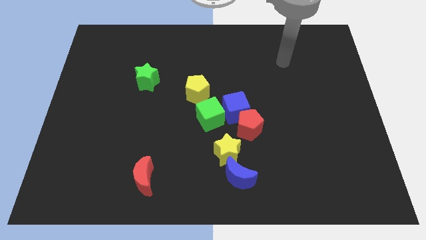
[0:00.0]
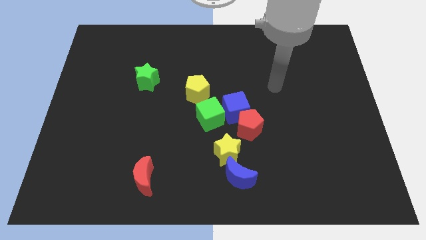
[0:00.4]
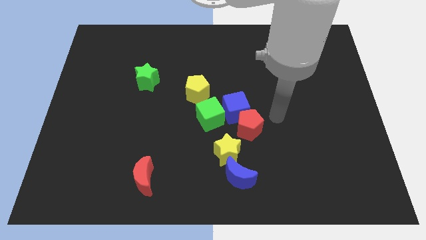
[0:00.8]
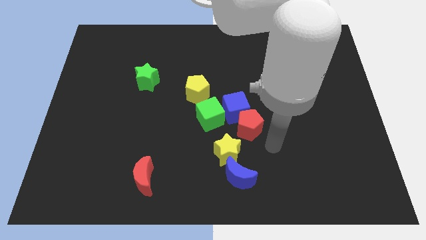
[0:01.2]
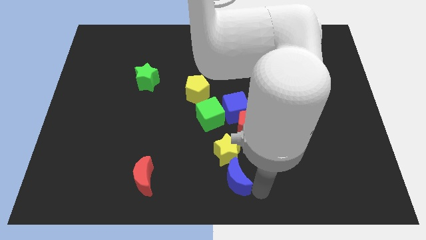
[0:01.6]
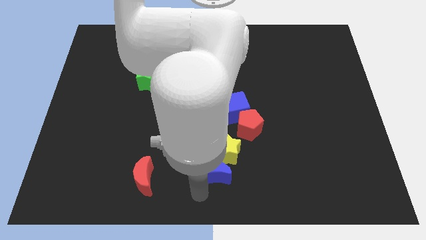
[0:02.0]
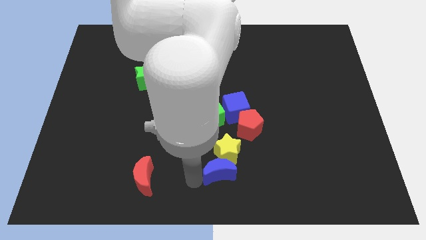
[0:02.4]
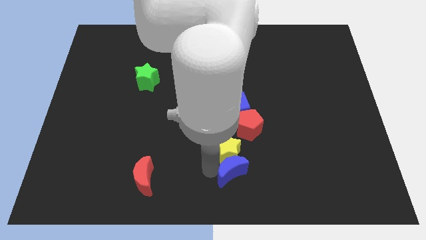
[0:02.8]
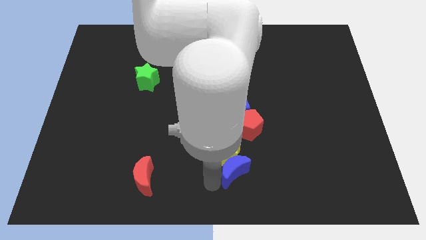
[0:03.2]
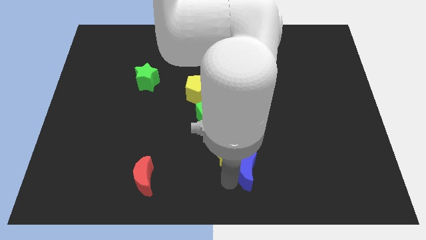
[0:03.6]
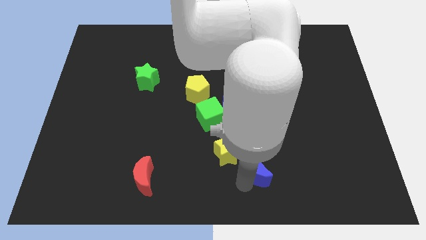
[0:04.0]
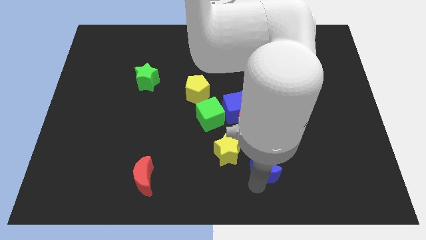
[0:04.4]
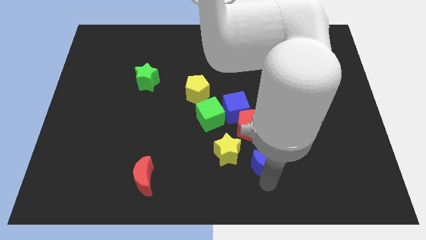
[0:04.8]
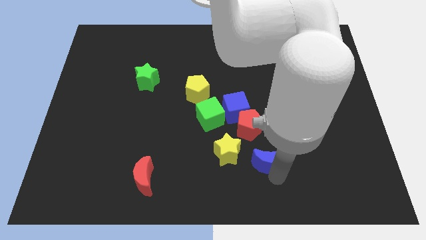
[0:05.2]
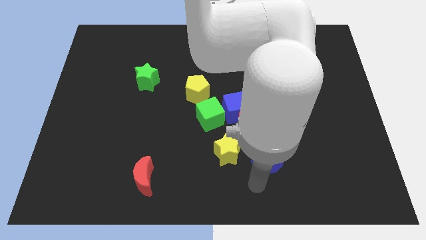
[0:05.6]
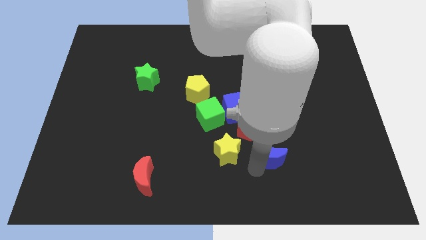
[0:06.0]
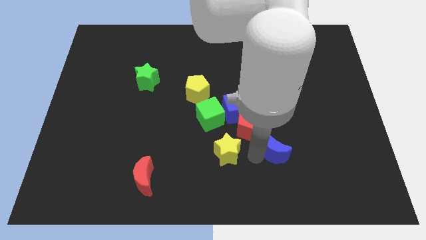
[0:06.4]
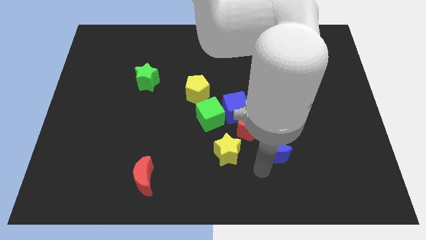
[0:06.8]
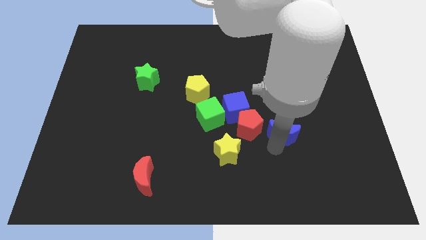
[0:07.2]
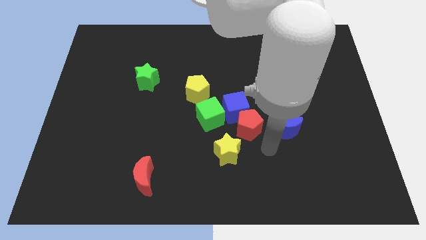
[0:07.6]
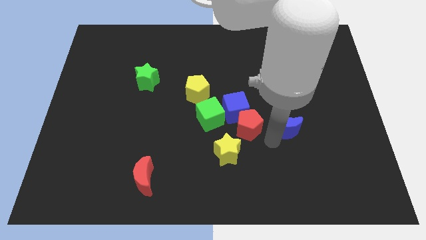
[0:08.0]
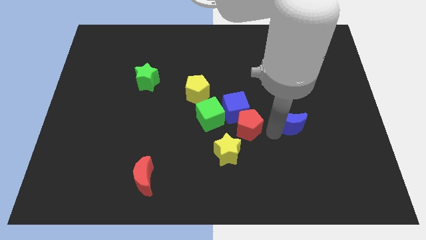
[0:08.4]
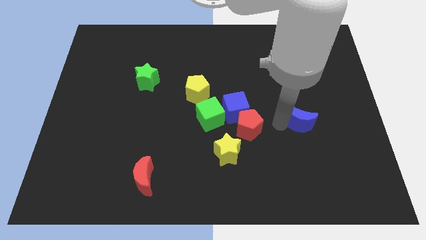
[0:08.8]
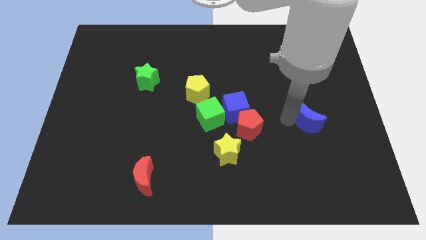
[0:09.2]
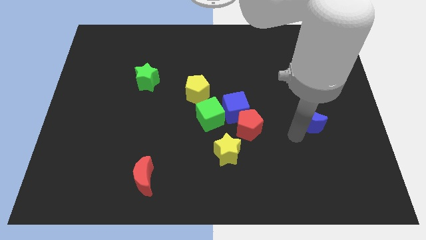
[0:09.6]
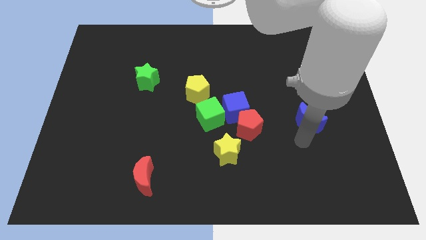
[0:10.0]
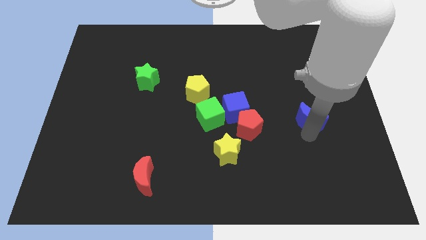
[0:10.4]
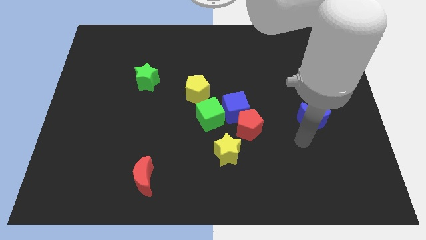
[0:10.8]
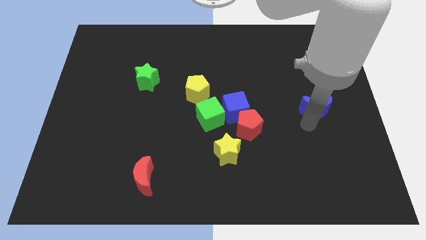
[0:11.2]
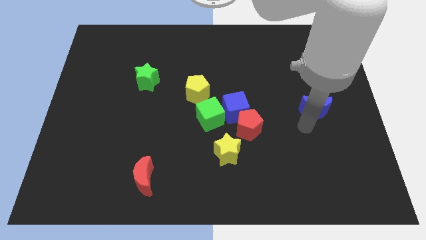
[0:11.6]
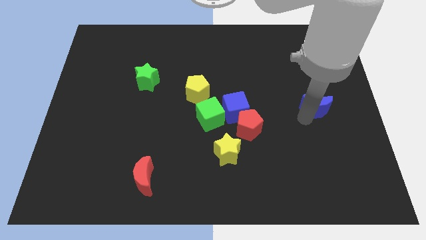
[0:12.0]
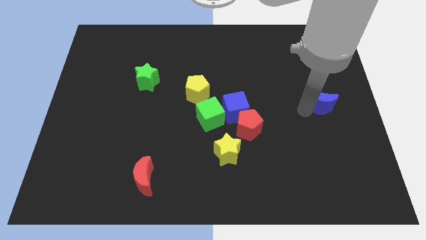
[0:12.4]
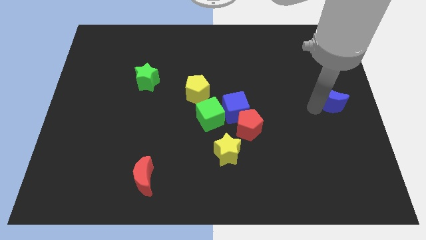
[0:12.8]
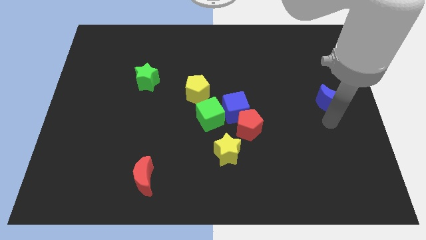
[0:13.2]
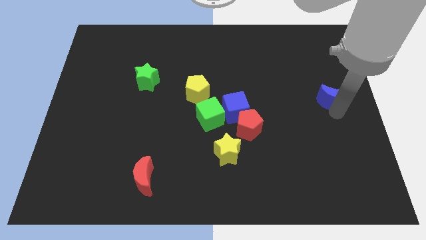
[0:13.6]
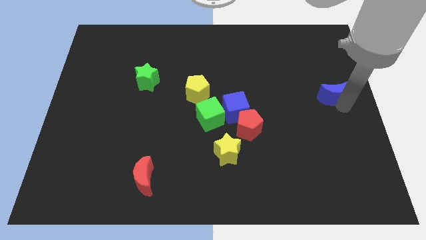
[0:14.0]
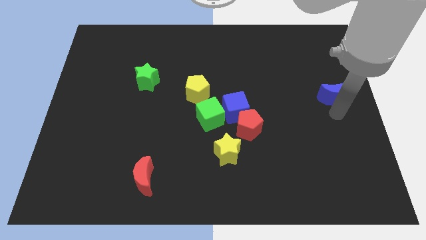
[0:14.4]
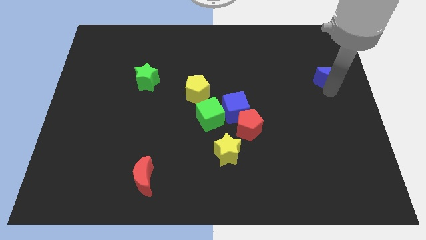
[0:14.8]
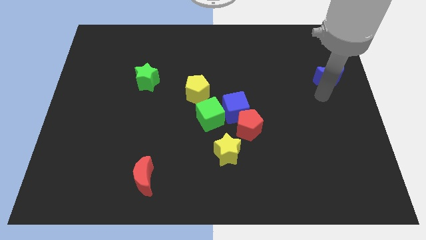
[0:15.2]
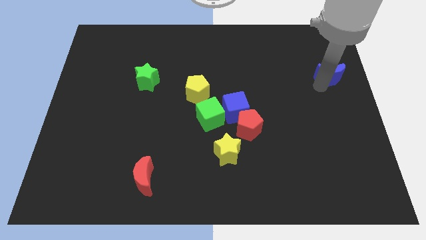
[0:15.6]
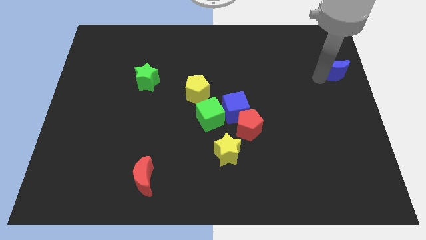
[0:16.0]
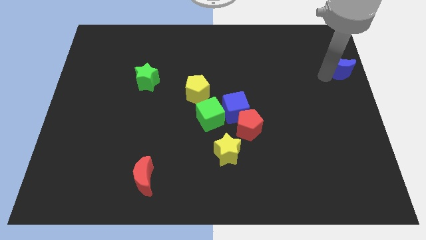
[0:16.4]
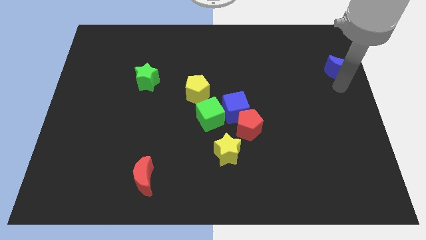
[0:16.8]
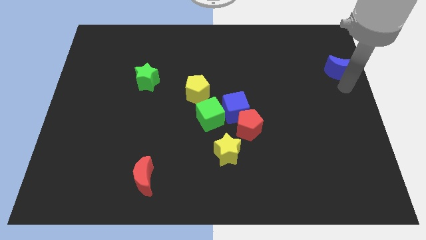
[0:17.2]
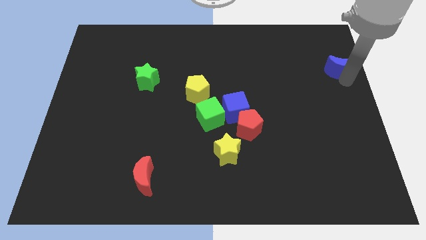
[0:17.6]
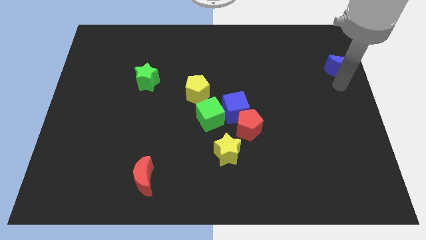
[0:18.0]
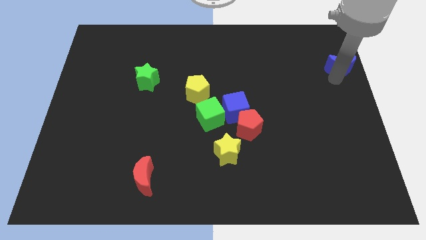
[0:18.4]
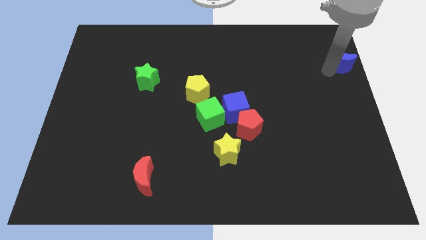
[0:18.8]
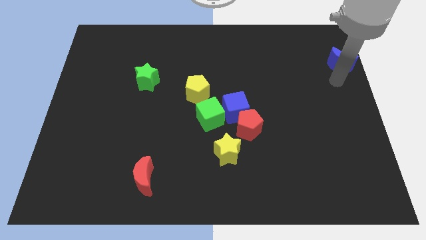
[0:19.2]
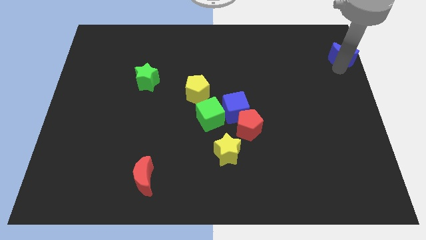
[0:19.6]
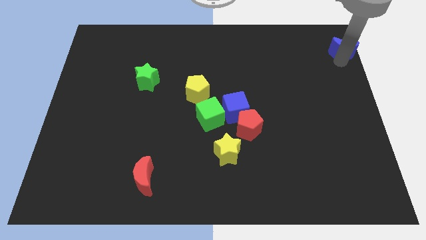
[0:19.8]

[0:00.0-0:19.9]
push the blue moon to the upper right corner

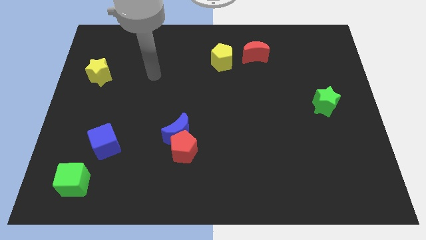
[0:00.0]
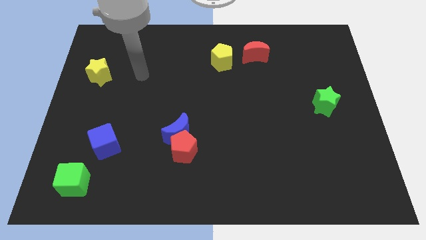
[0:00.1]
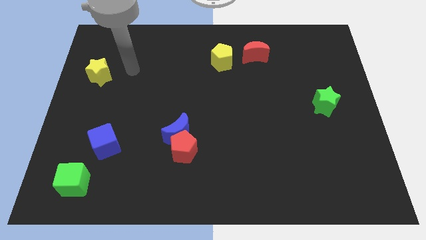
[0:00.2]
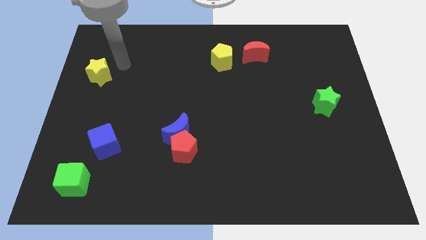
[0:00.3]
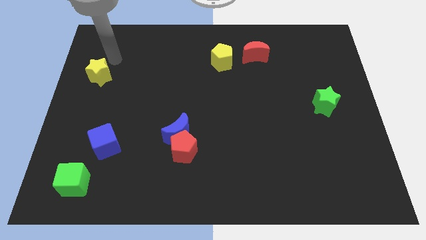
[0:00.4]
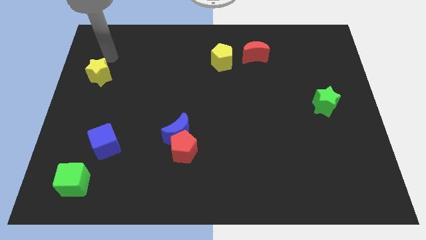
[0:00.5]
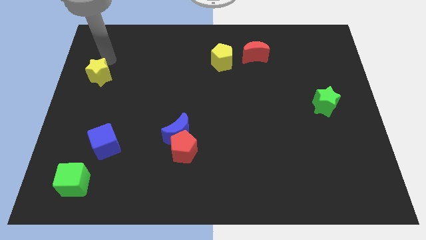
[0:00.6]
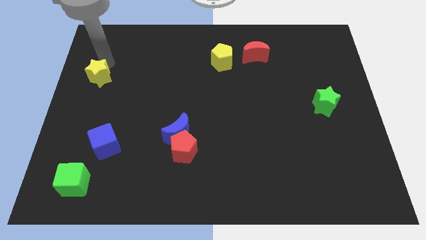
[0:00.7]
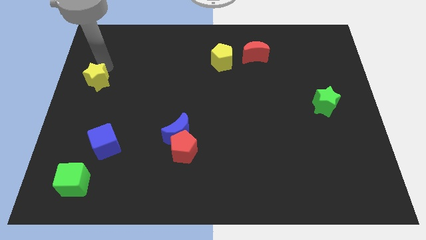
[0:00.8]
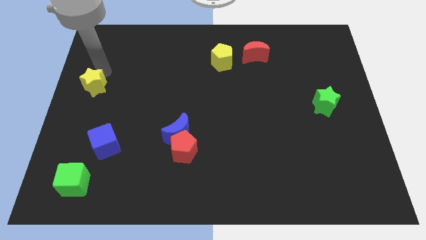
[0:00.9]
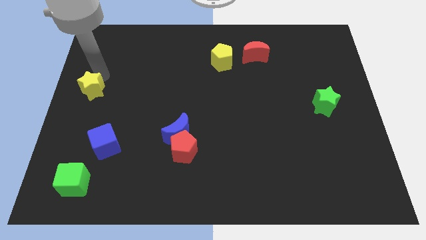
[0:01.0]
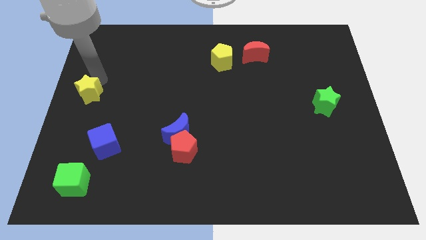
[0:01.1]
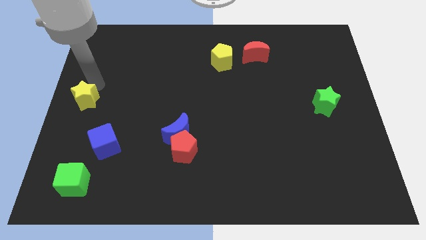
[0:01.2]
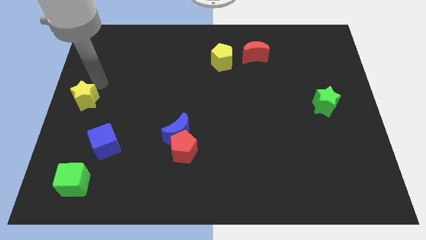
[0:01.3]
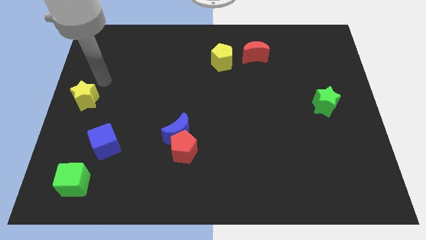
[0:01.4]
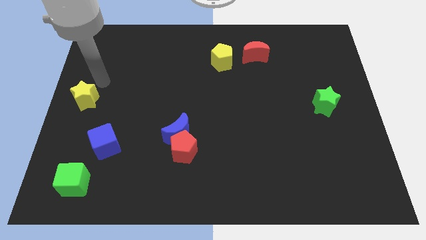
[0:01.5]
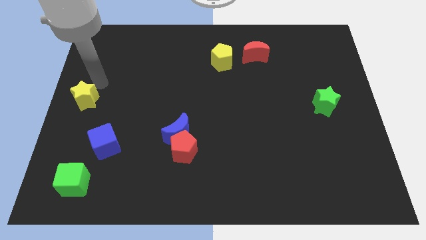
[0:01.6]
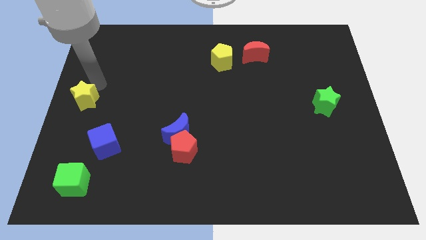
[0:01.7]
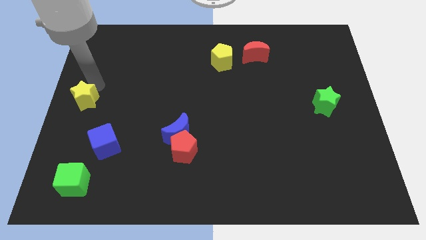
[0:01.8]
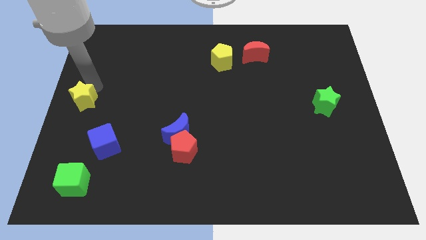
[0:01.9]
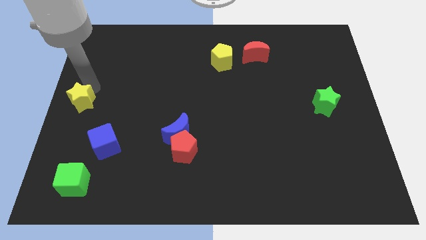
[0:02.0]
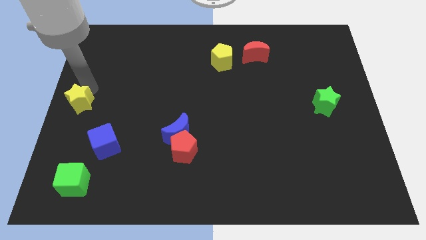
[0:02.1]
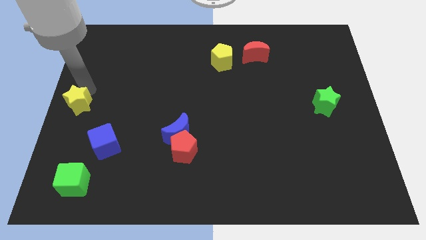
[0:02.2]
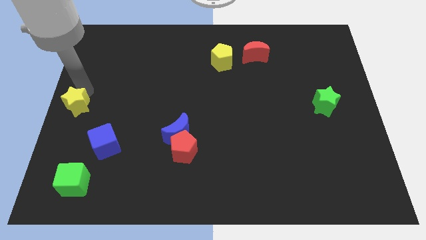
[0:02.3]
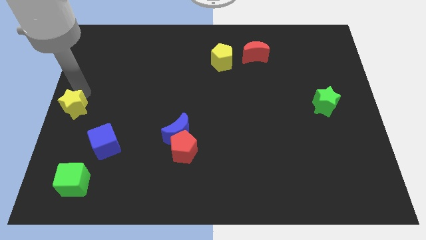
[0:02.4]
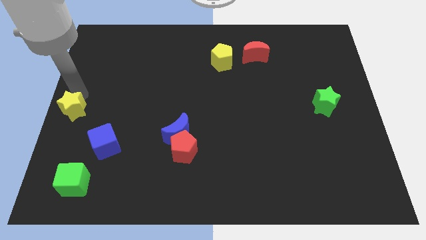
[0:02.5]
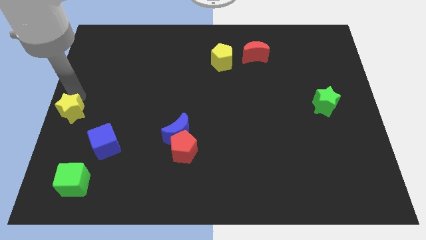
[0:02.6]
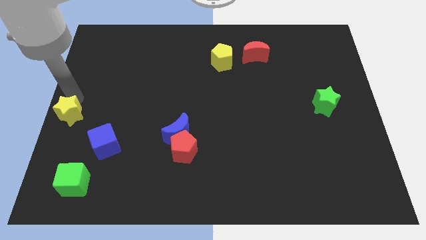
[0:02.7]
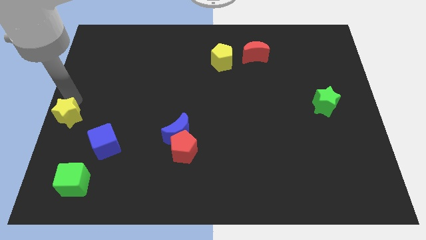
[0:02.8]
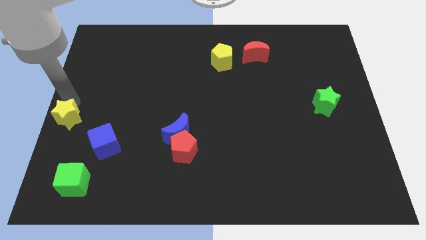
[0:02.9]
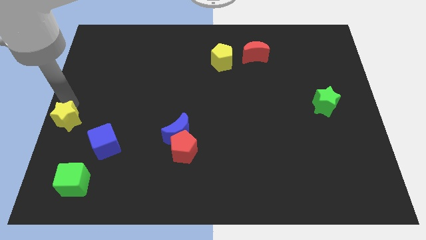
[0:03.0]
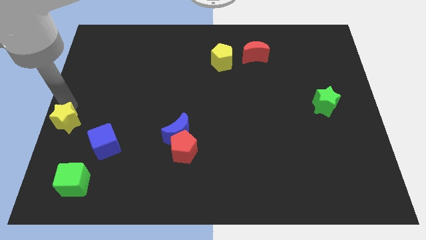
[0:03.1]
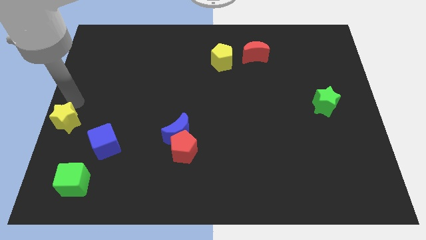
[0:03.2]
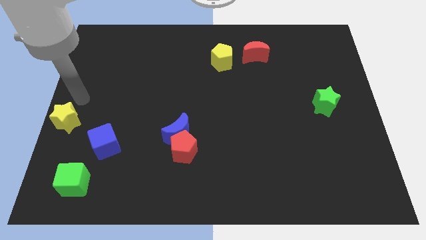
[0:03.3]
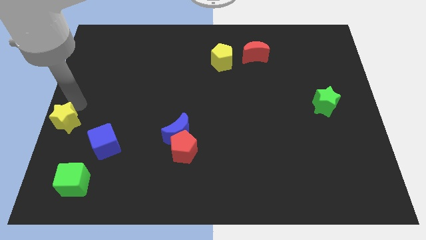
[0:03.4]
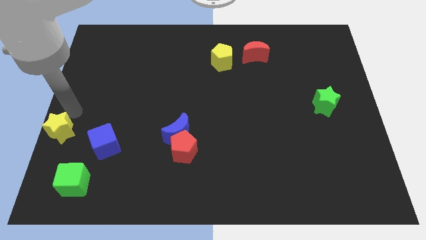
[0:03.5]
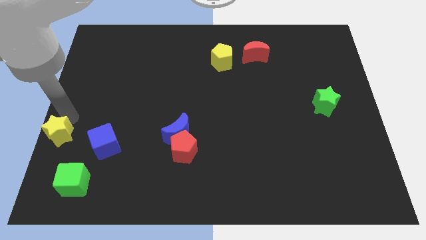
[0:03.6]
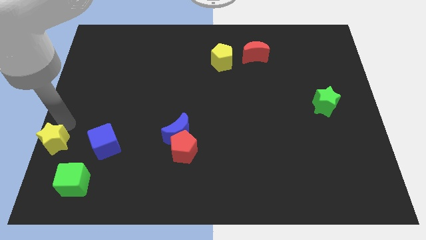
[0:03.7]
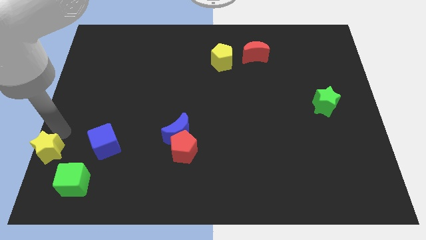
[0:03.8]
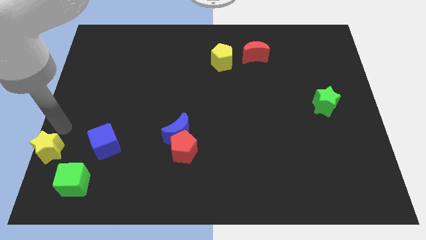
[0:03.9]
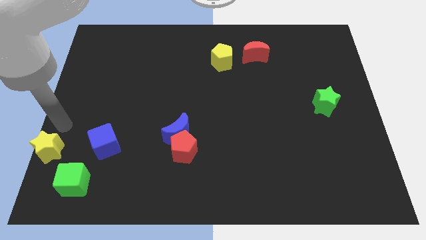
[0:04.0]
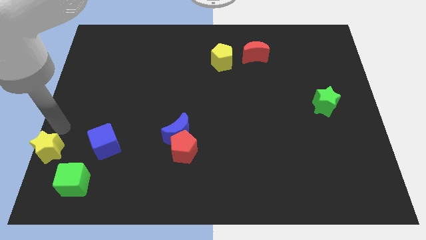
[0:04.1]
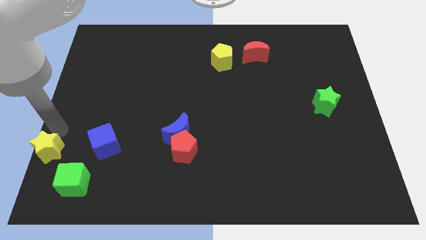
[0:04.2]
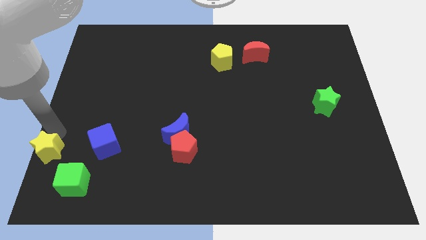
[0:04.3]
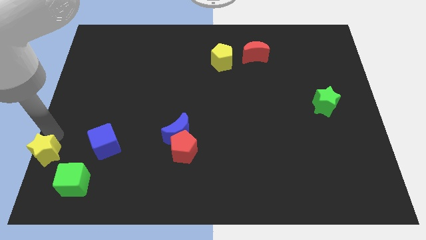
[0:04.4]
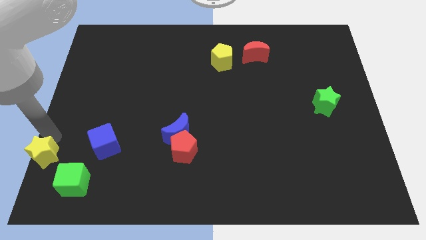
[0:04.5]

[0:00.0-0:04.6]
push the yellow star to the bottom left
